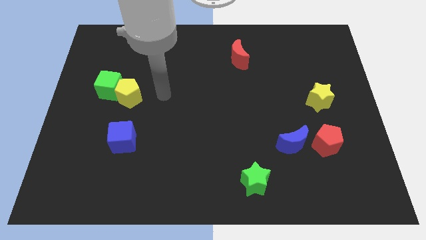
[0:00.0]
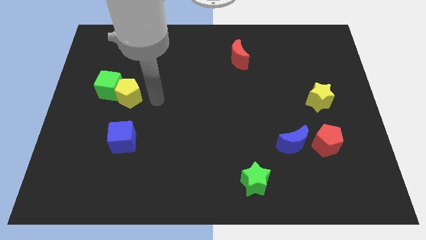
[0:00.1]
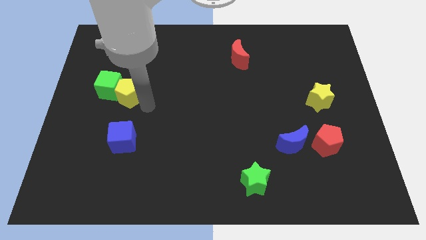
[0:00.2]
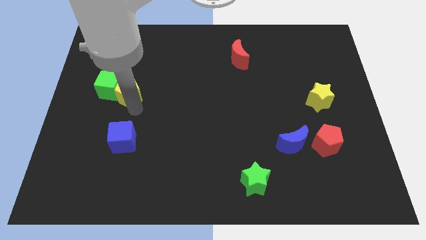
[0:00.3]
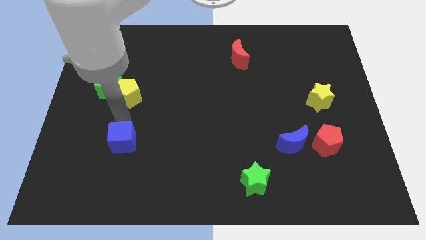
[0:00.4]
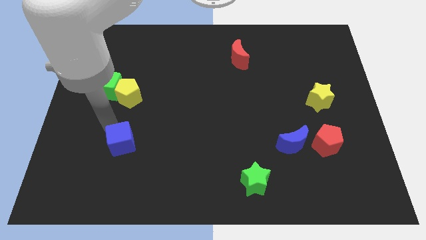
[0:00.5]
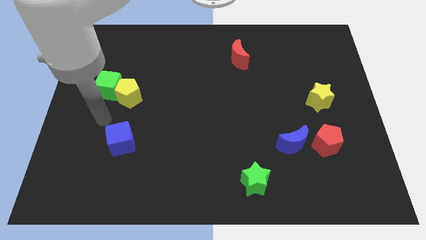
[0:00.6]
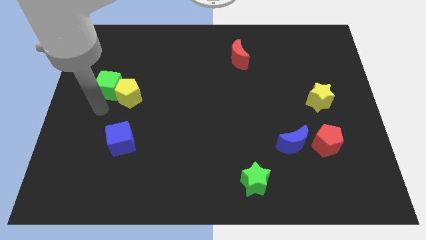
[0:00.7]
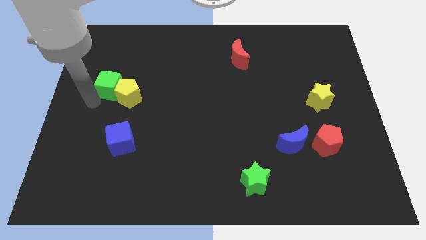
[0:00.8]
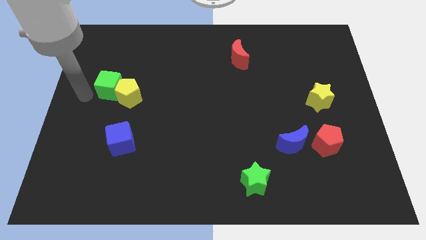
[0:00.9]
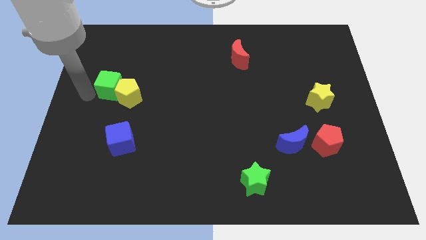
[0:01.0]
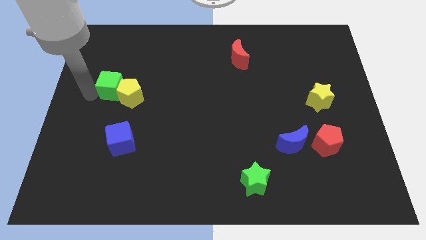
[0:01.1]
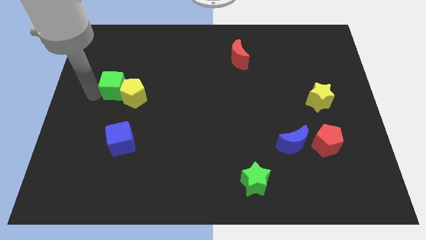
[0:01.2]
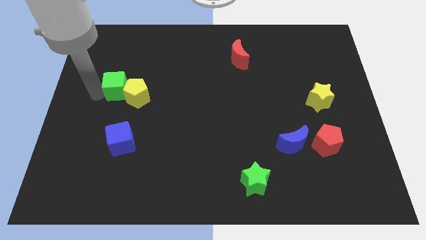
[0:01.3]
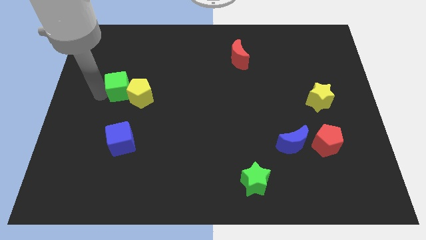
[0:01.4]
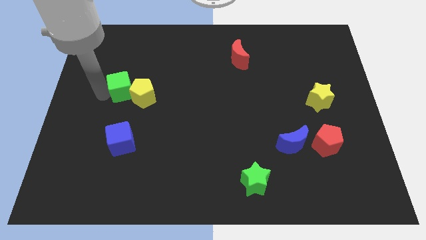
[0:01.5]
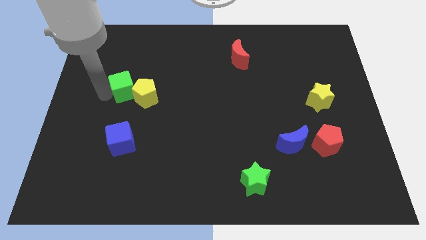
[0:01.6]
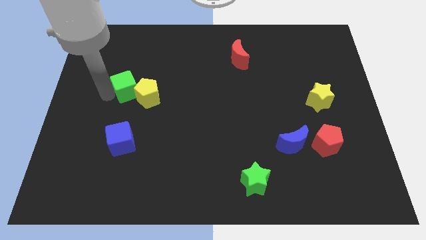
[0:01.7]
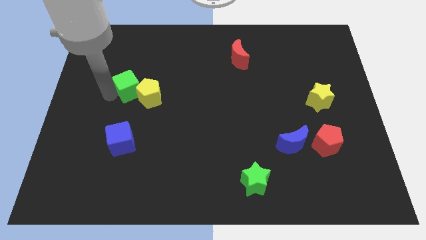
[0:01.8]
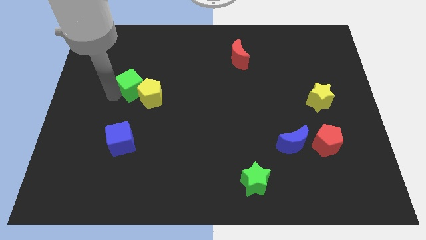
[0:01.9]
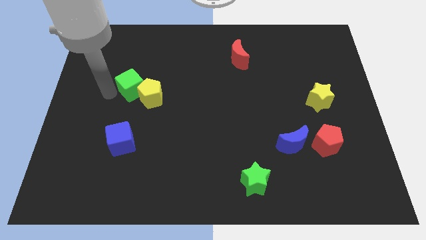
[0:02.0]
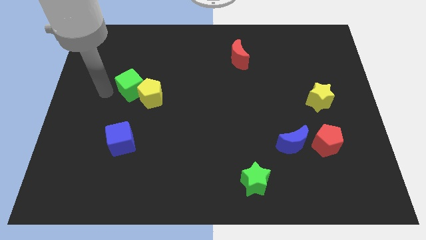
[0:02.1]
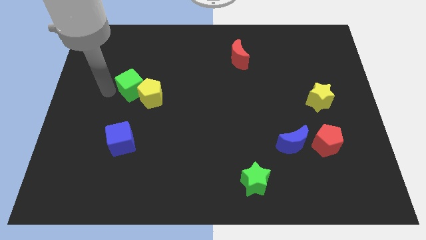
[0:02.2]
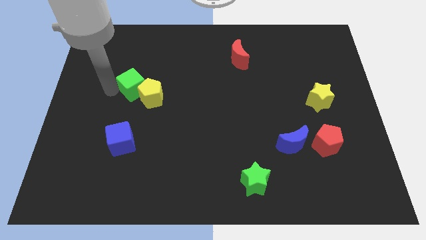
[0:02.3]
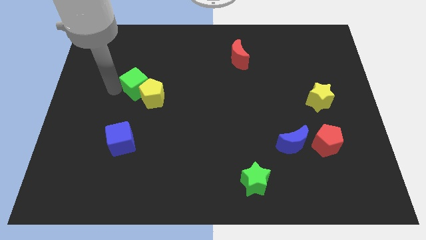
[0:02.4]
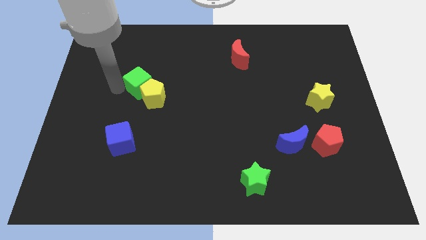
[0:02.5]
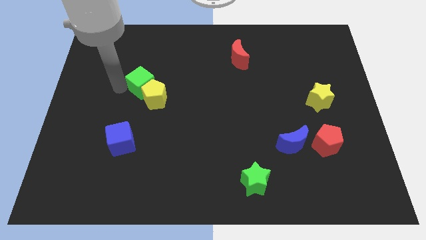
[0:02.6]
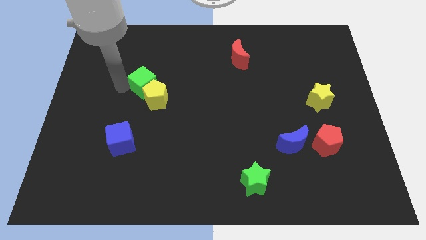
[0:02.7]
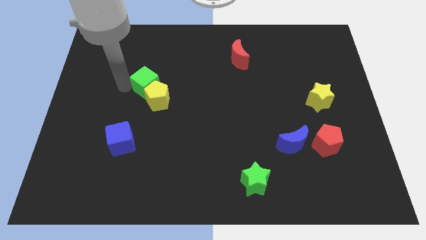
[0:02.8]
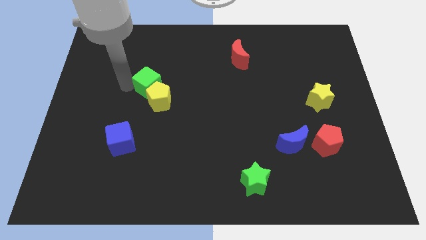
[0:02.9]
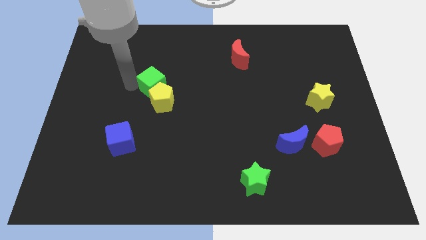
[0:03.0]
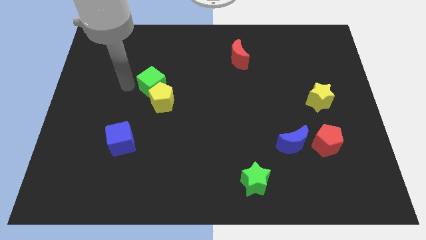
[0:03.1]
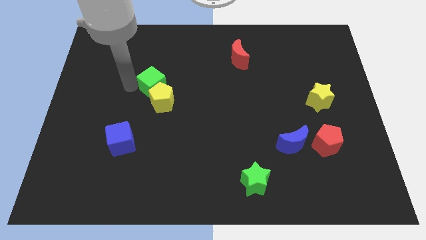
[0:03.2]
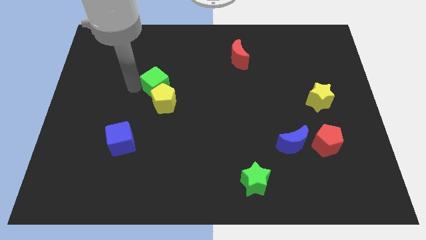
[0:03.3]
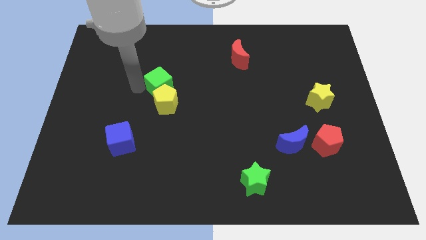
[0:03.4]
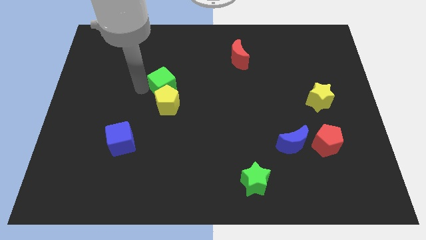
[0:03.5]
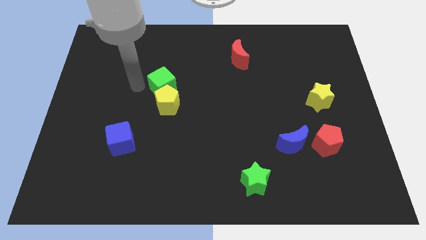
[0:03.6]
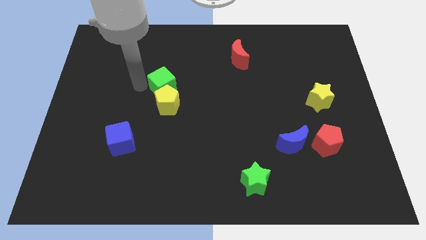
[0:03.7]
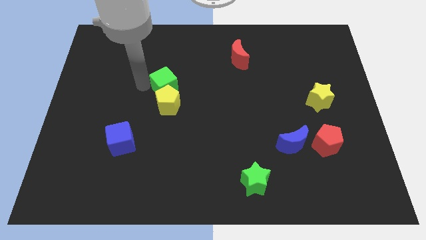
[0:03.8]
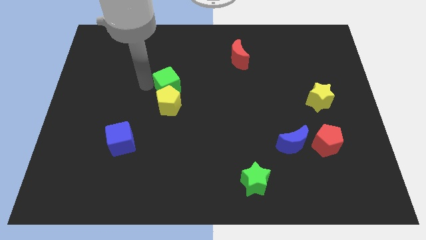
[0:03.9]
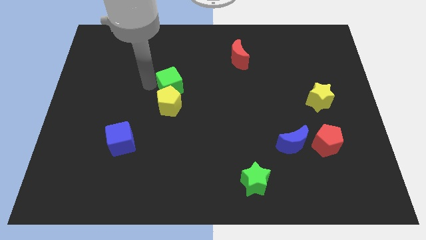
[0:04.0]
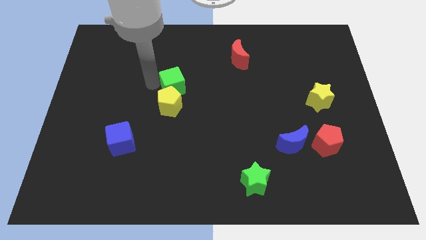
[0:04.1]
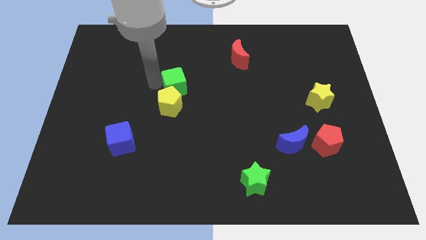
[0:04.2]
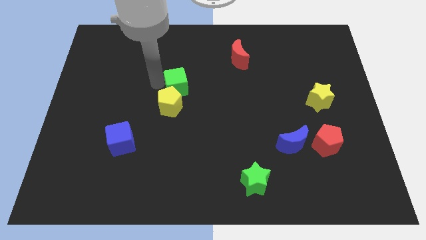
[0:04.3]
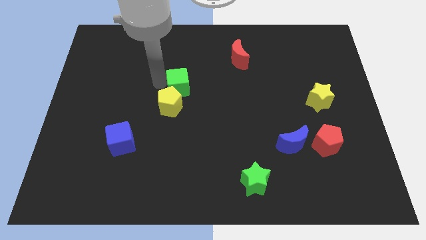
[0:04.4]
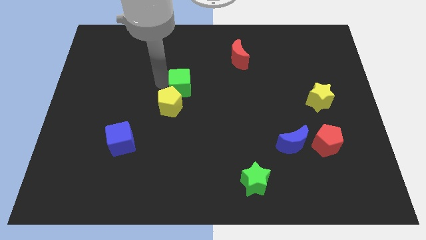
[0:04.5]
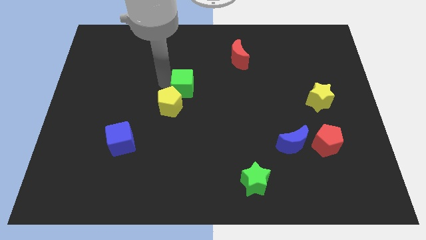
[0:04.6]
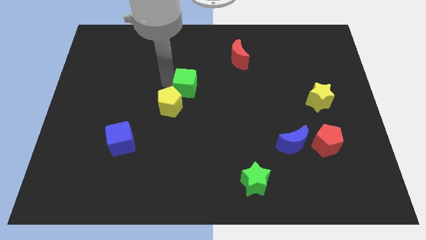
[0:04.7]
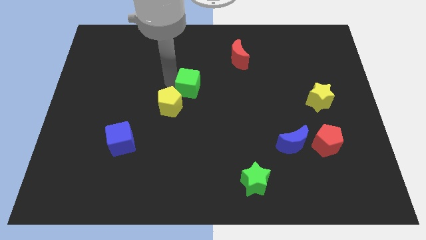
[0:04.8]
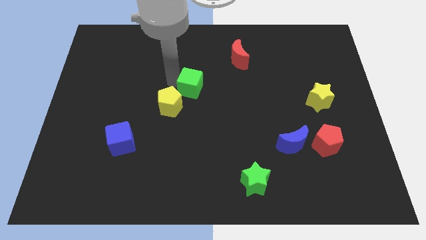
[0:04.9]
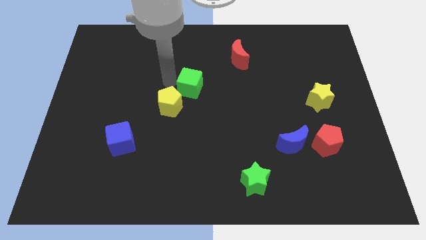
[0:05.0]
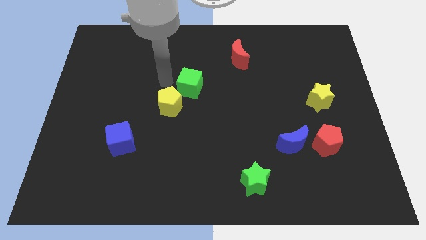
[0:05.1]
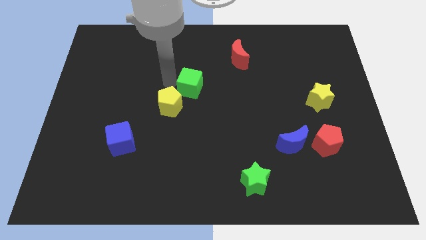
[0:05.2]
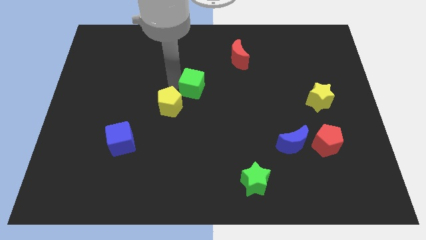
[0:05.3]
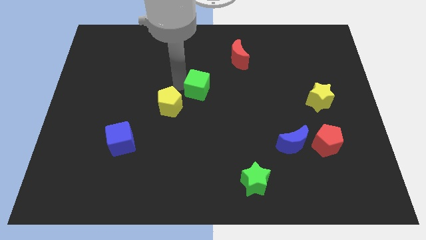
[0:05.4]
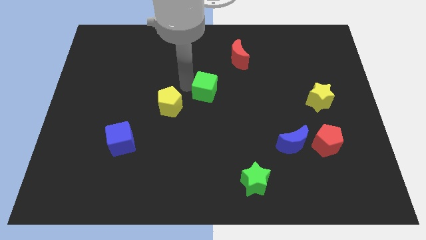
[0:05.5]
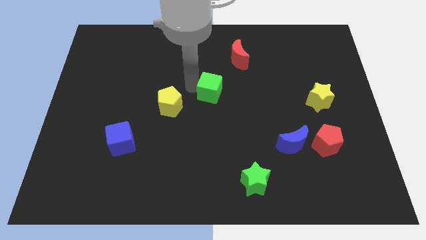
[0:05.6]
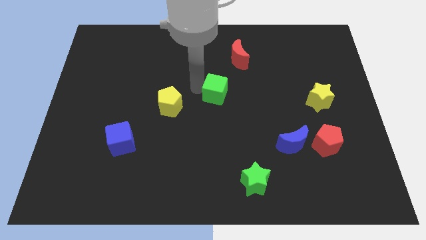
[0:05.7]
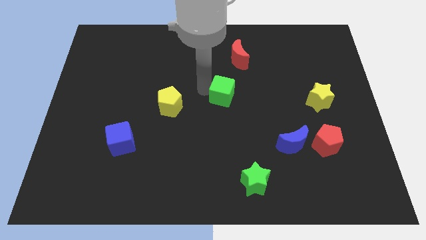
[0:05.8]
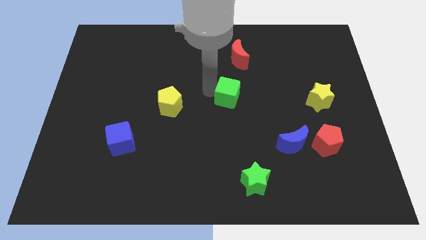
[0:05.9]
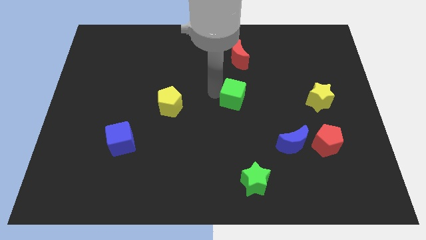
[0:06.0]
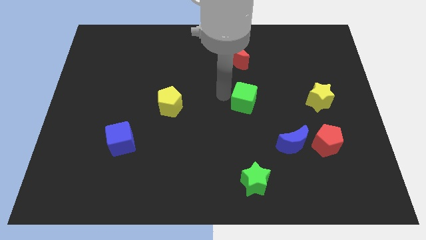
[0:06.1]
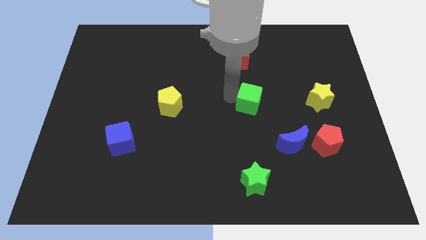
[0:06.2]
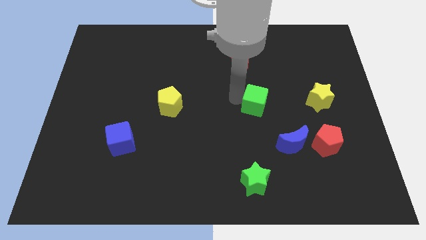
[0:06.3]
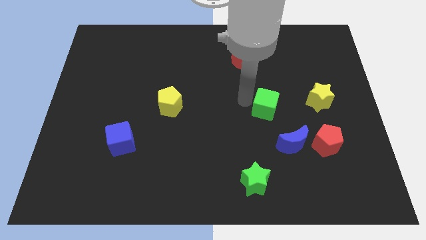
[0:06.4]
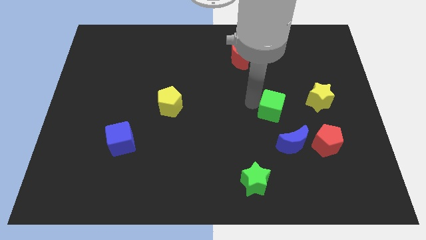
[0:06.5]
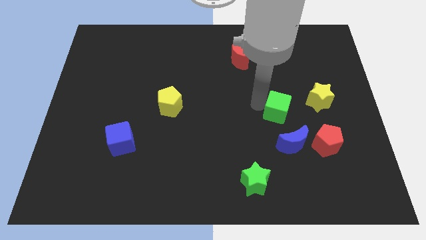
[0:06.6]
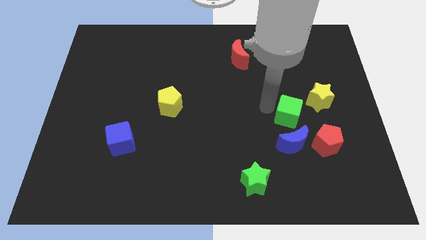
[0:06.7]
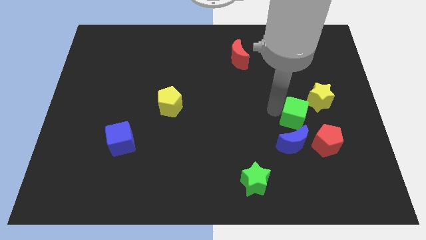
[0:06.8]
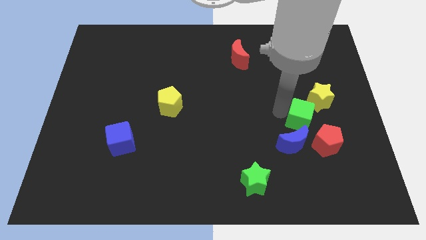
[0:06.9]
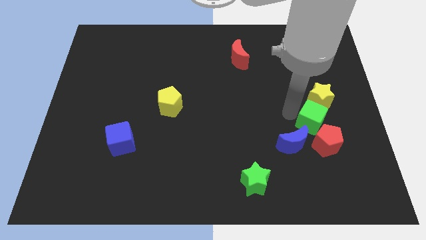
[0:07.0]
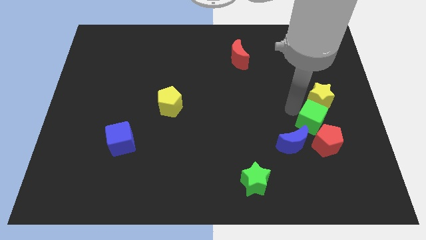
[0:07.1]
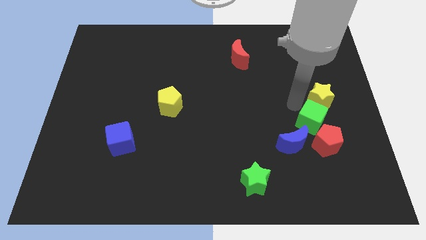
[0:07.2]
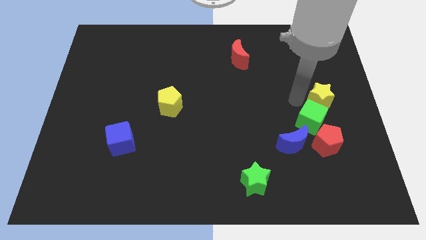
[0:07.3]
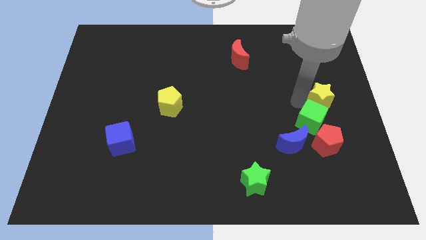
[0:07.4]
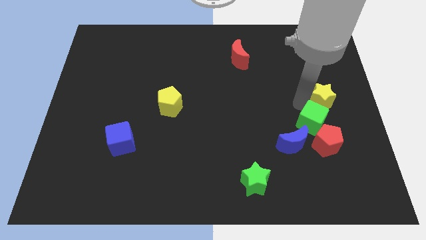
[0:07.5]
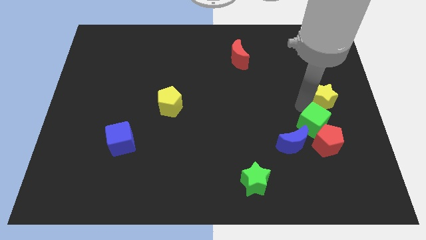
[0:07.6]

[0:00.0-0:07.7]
move the green cube close to the red pentagon
